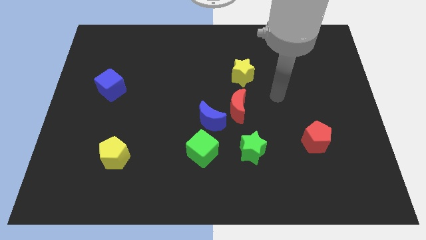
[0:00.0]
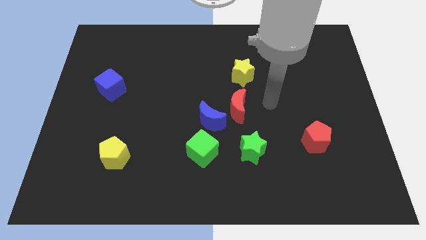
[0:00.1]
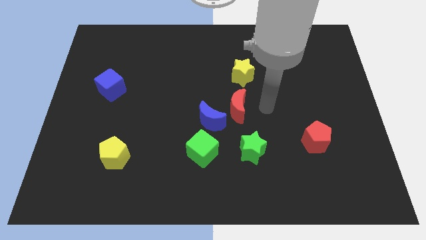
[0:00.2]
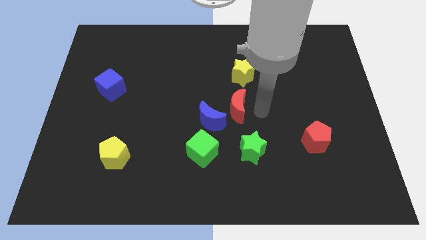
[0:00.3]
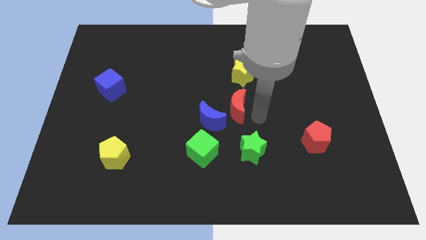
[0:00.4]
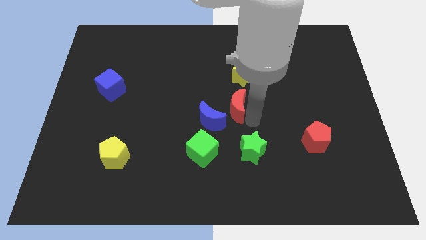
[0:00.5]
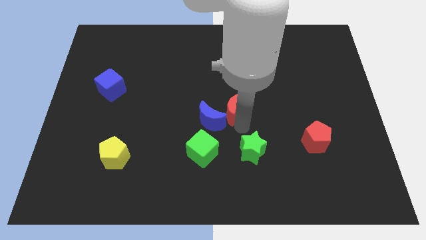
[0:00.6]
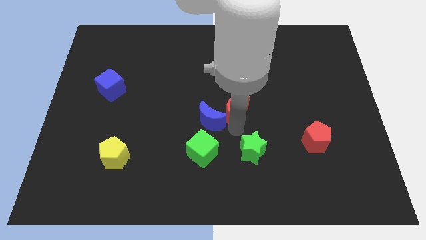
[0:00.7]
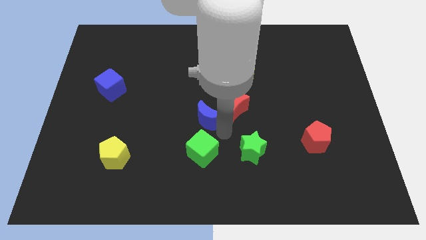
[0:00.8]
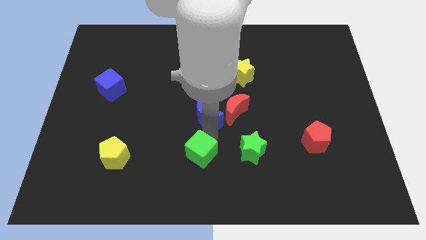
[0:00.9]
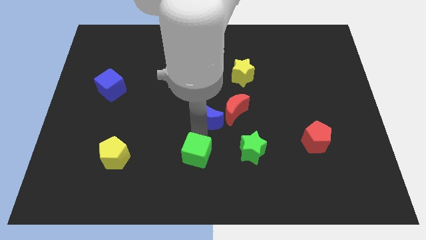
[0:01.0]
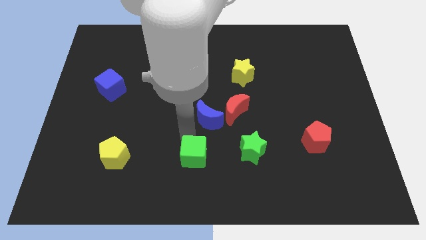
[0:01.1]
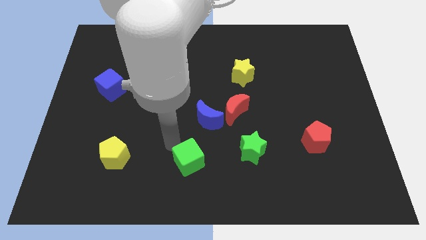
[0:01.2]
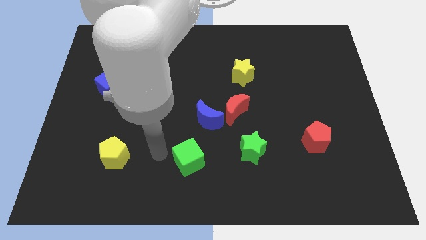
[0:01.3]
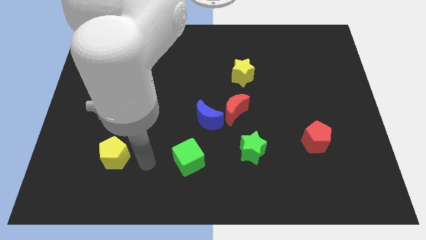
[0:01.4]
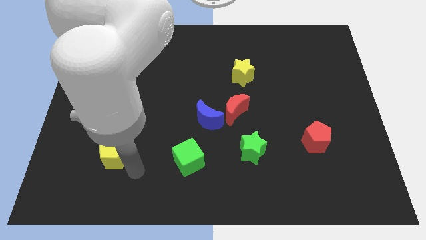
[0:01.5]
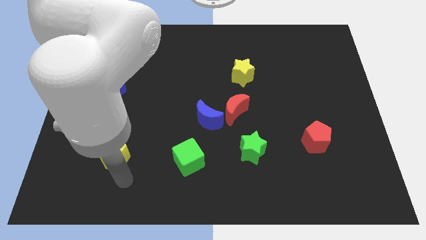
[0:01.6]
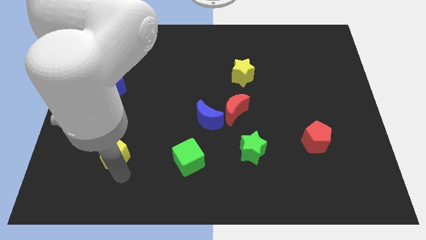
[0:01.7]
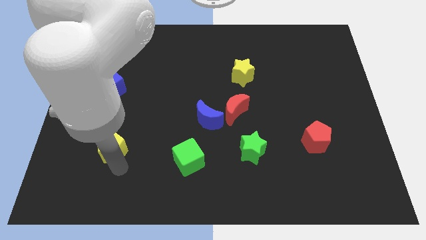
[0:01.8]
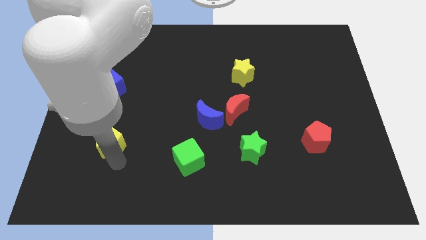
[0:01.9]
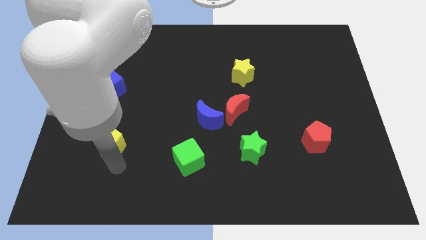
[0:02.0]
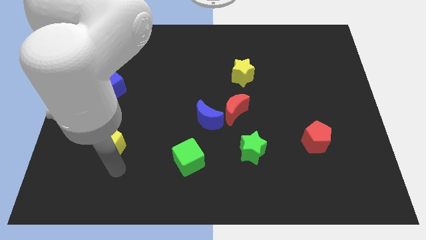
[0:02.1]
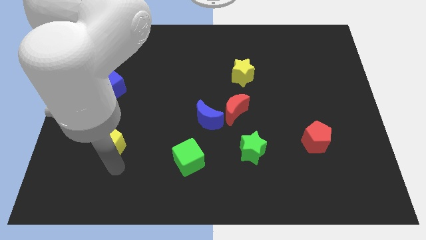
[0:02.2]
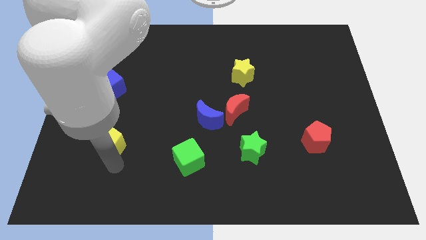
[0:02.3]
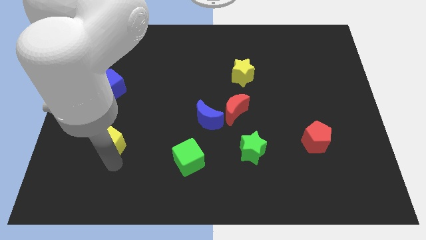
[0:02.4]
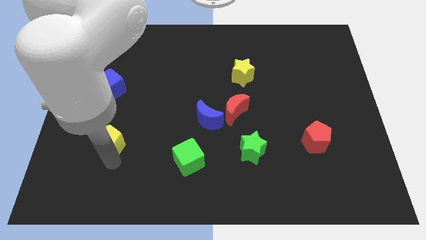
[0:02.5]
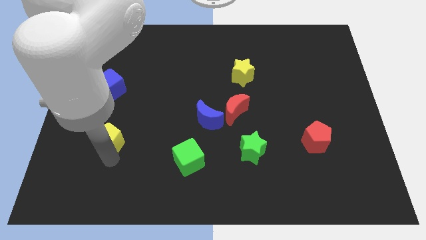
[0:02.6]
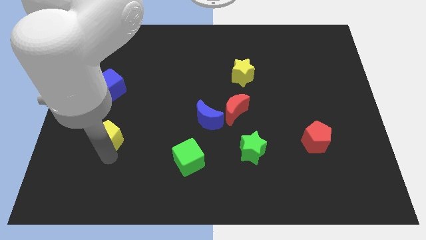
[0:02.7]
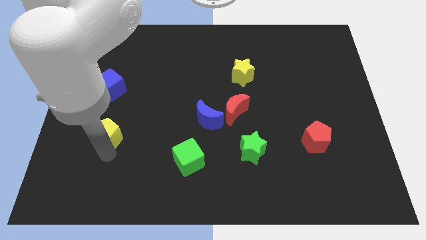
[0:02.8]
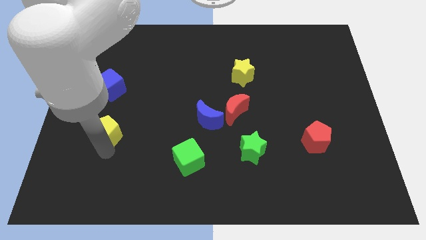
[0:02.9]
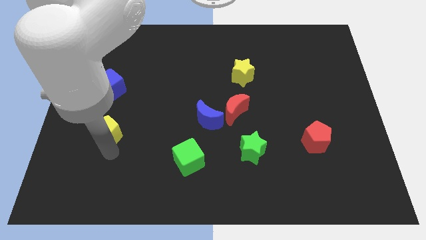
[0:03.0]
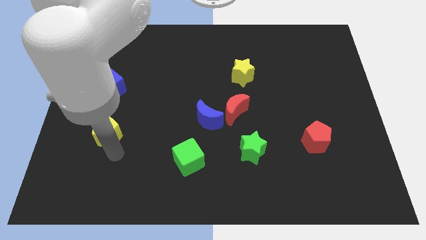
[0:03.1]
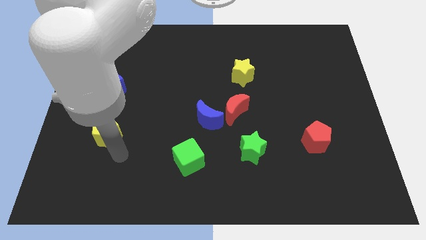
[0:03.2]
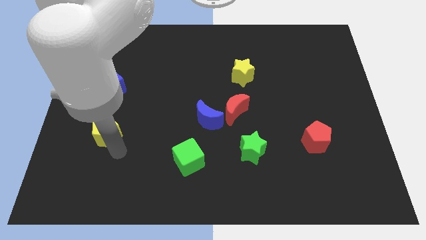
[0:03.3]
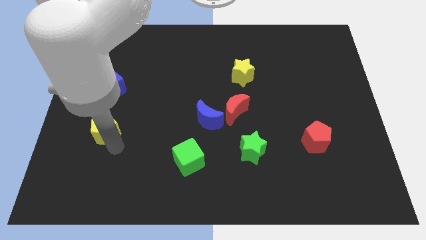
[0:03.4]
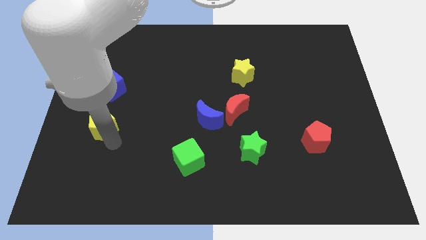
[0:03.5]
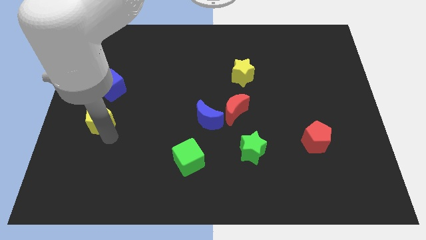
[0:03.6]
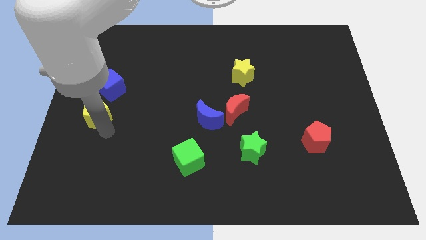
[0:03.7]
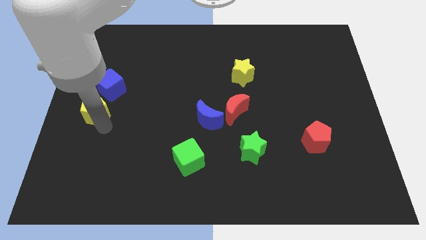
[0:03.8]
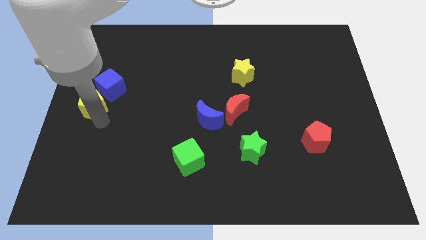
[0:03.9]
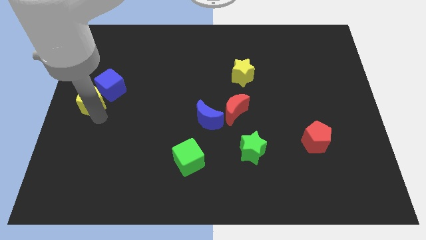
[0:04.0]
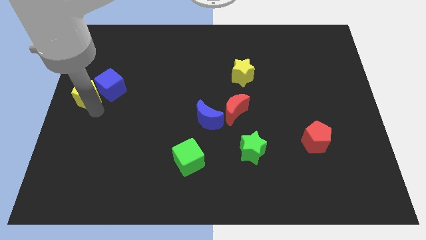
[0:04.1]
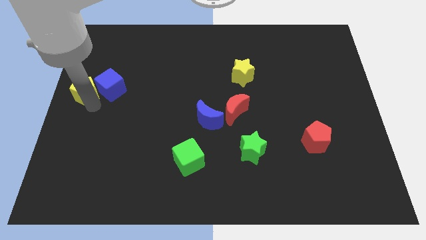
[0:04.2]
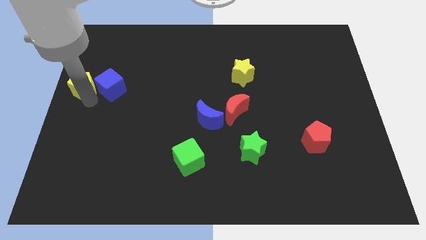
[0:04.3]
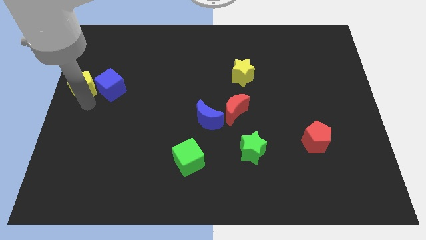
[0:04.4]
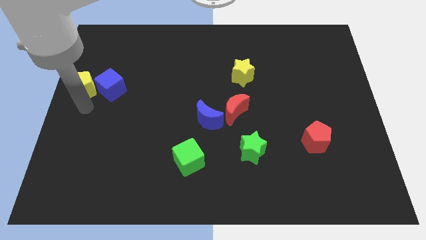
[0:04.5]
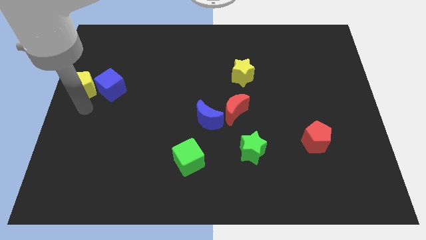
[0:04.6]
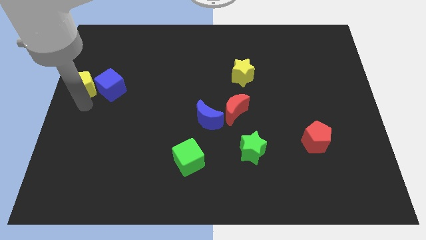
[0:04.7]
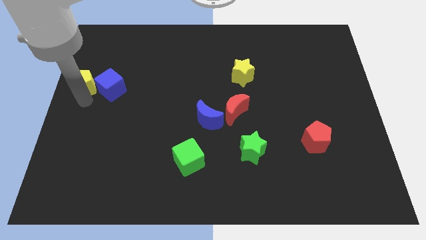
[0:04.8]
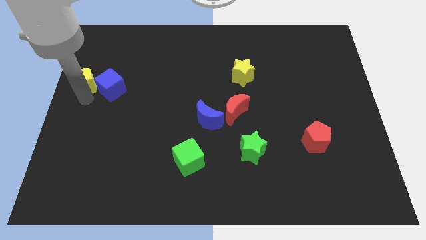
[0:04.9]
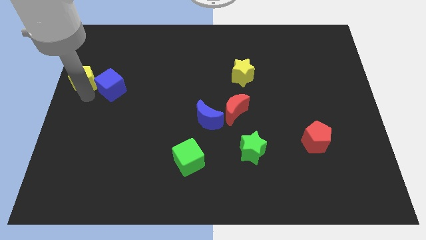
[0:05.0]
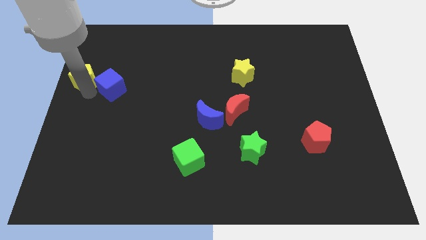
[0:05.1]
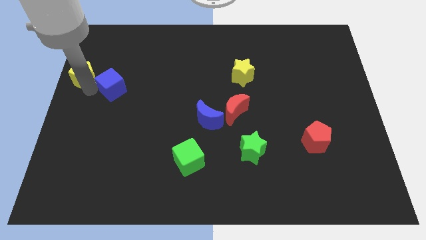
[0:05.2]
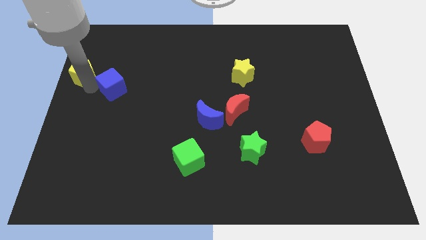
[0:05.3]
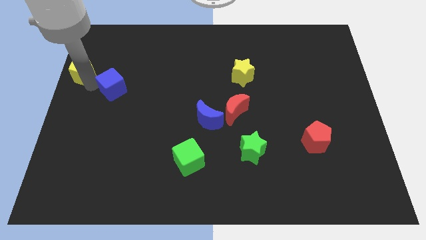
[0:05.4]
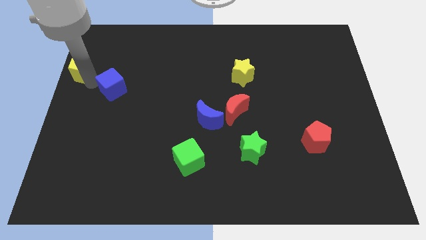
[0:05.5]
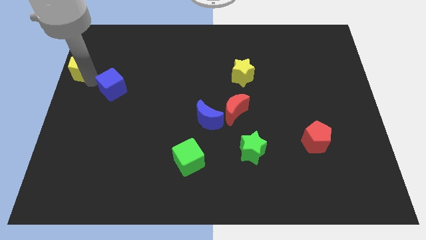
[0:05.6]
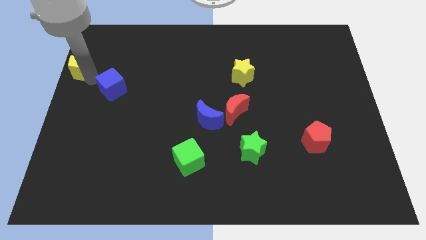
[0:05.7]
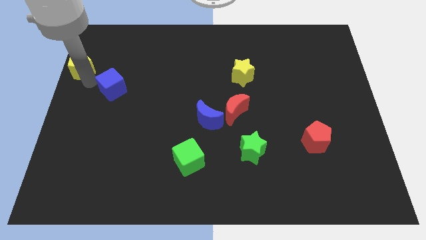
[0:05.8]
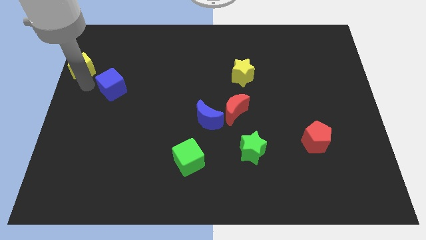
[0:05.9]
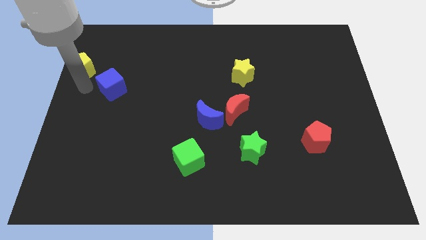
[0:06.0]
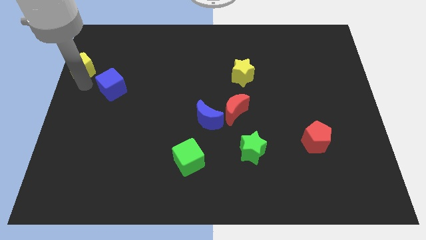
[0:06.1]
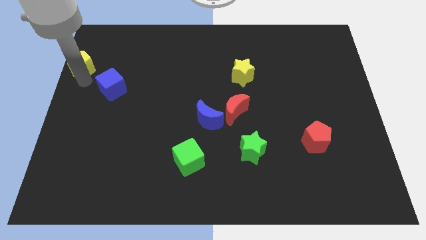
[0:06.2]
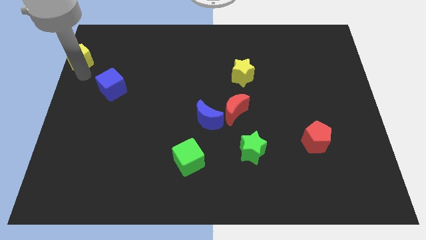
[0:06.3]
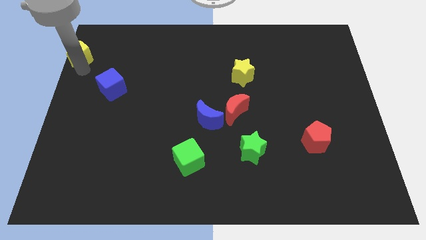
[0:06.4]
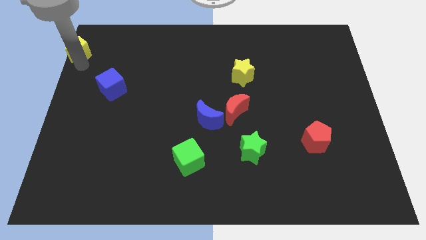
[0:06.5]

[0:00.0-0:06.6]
slide the yellow pentagon to the top left
